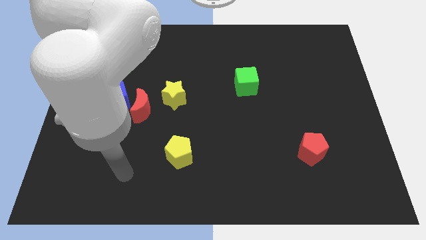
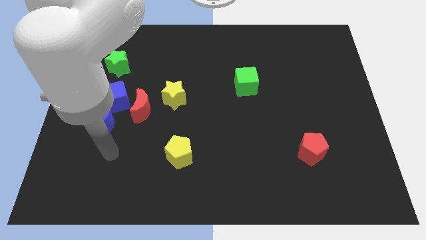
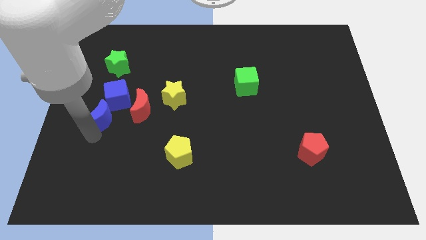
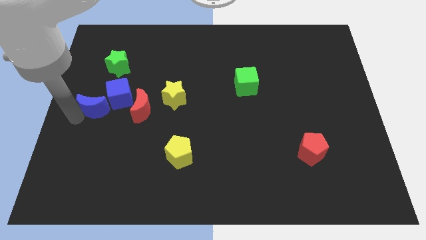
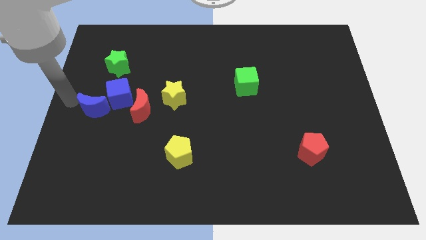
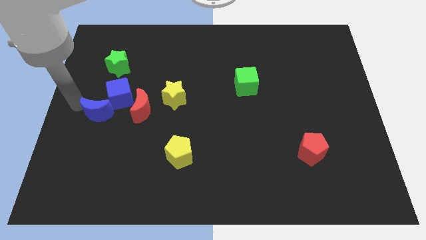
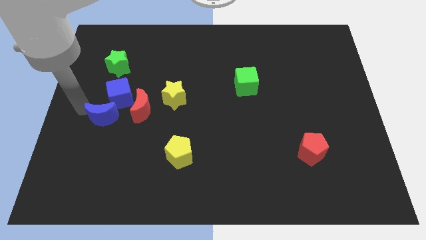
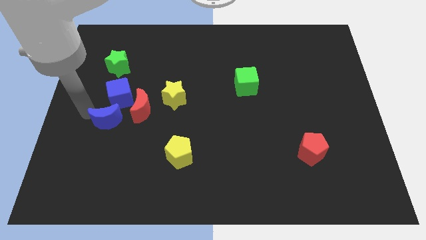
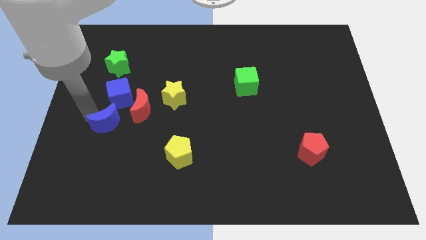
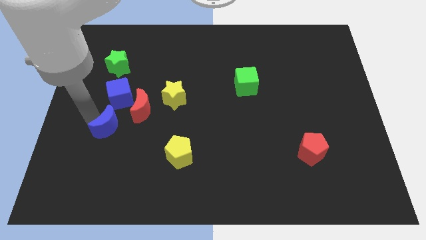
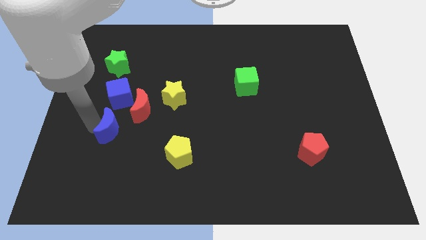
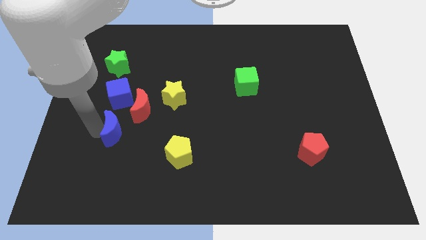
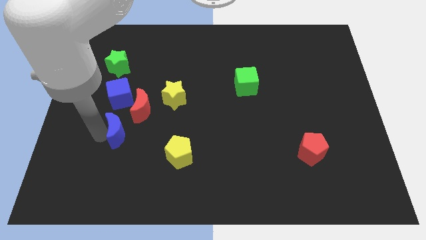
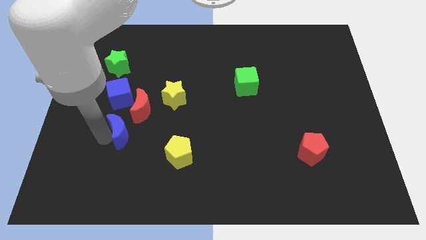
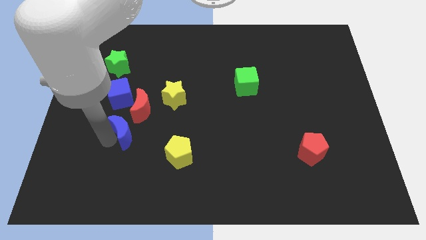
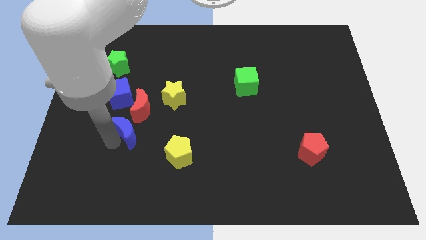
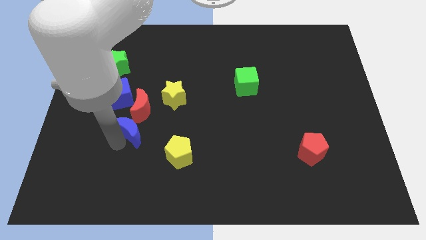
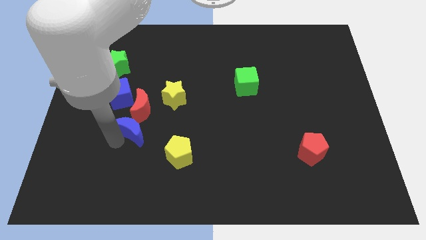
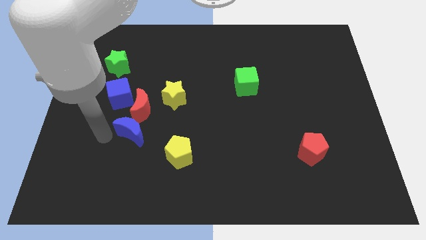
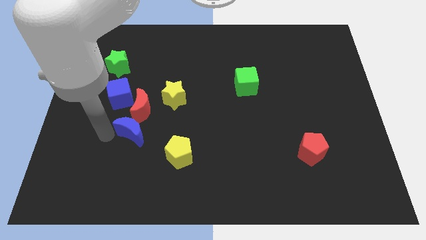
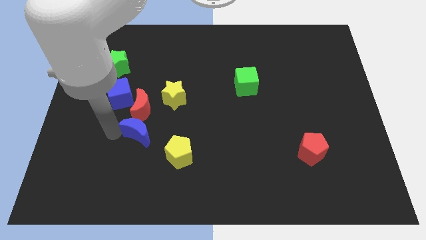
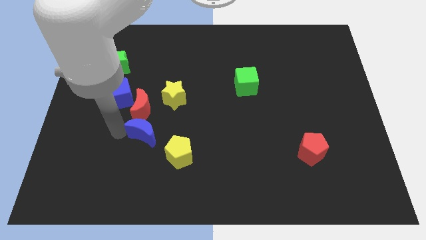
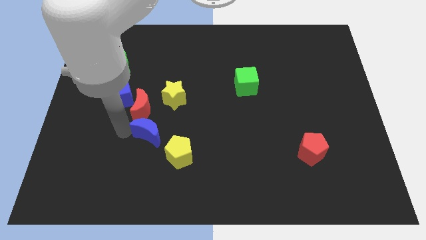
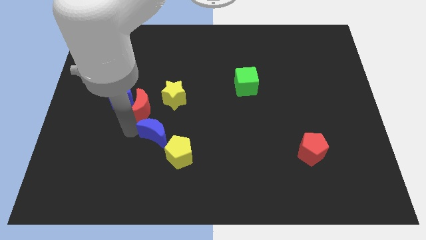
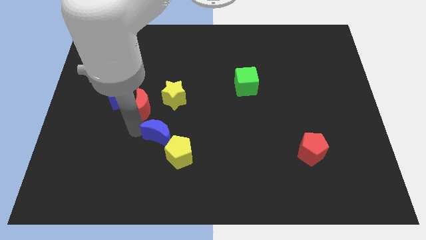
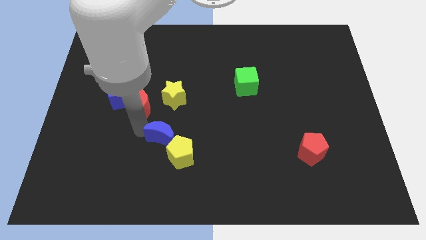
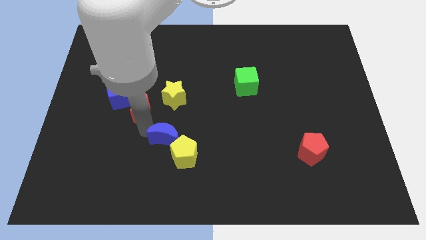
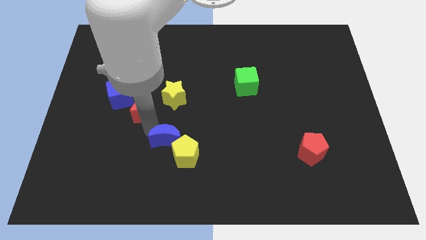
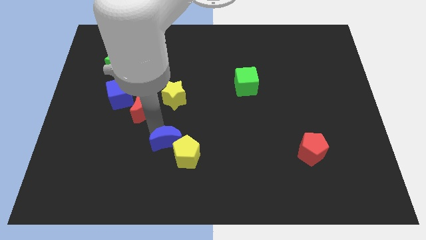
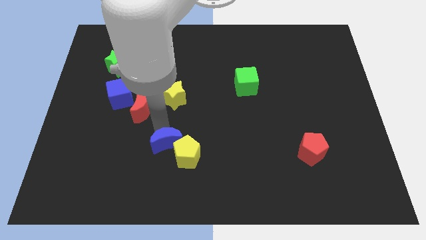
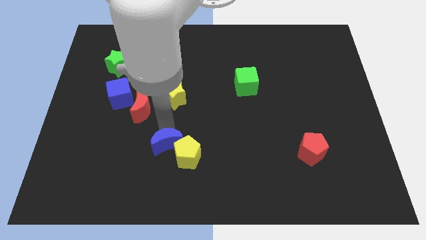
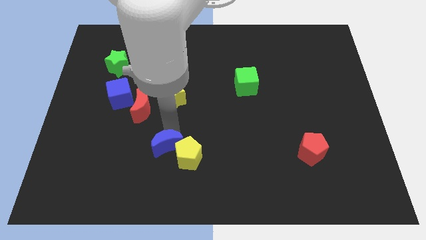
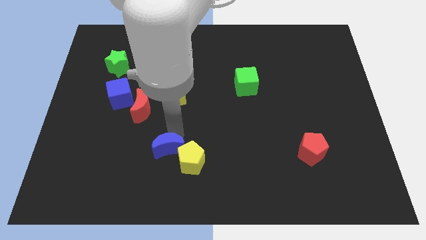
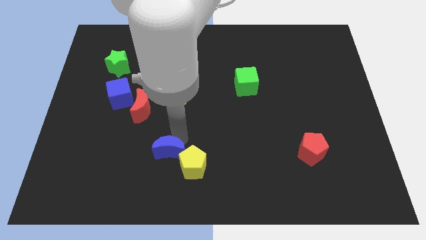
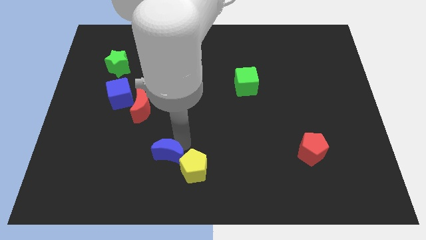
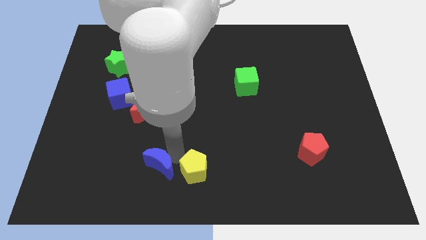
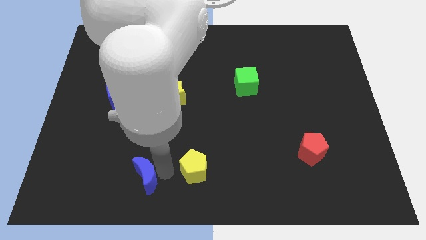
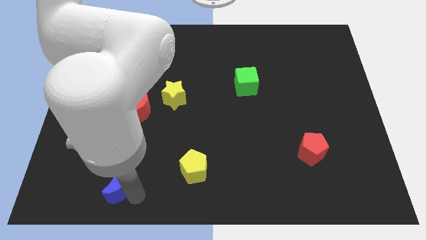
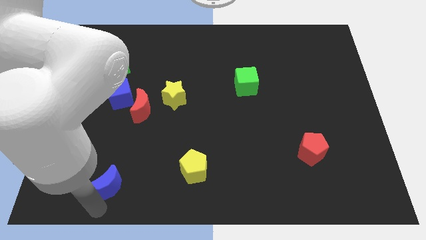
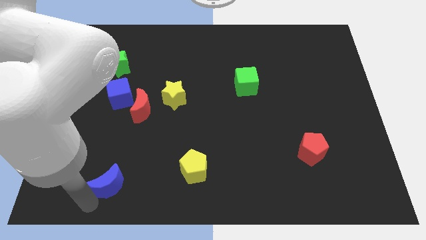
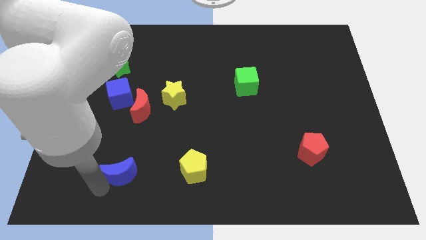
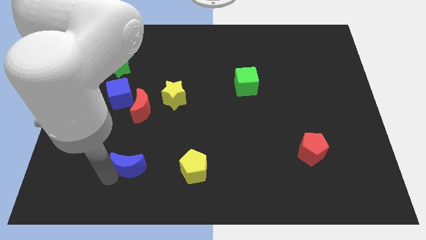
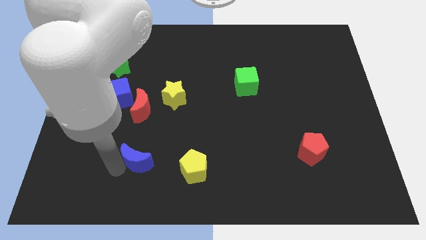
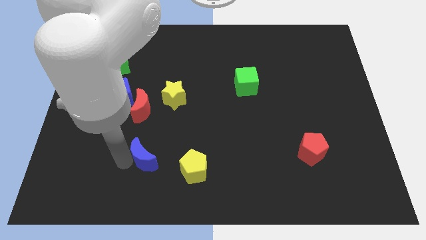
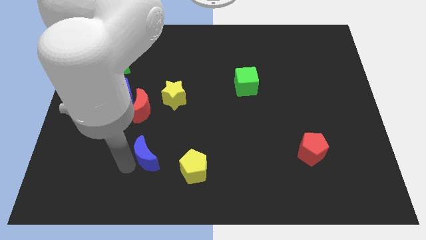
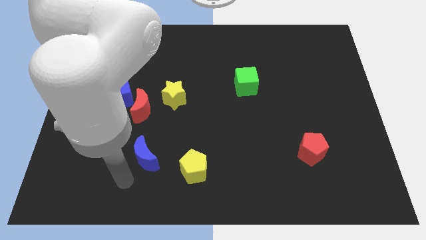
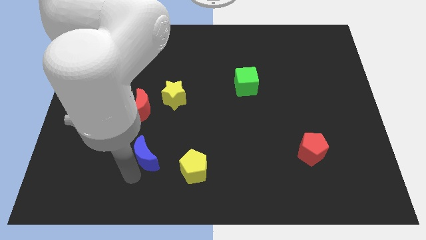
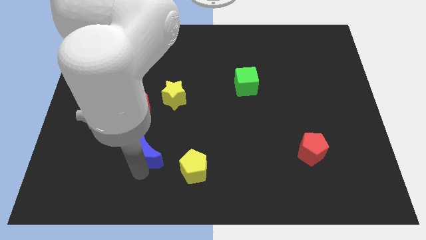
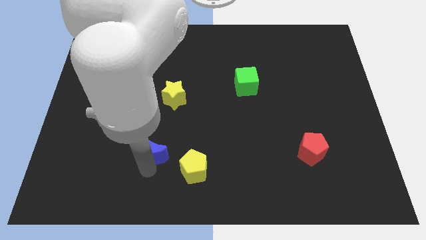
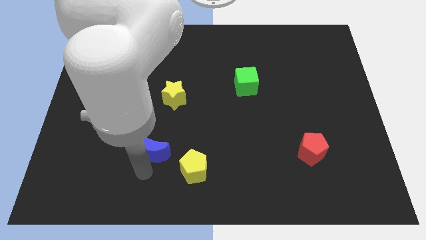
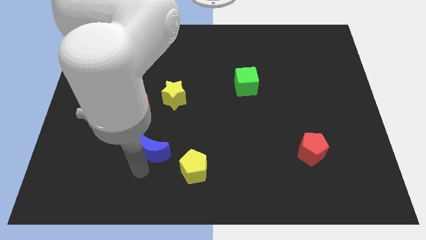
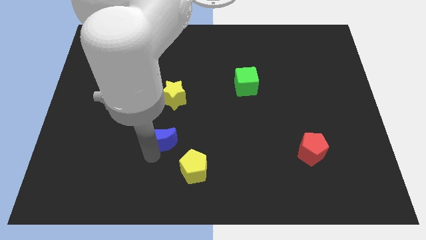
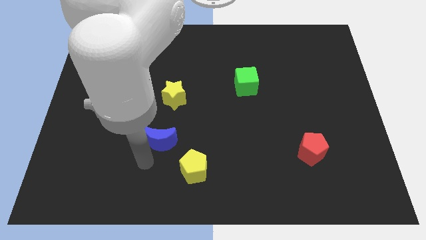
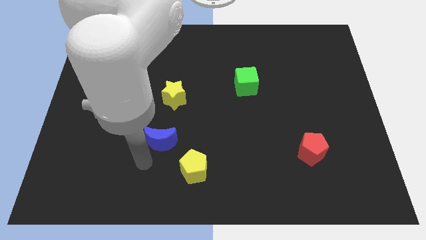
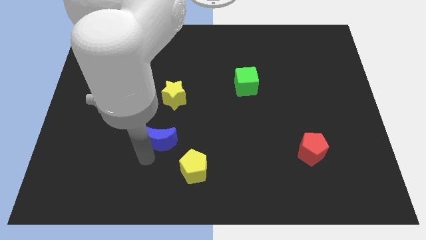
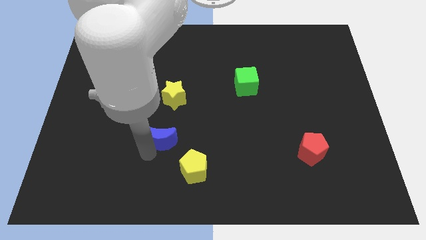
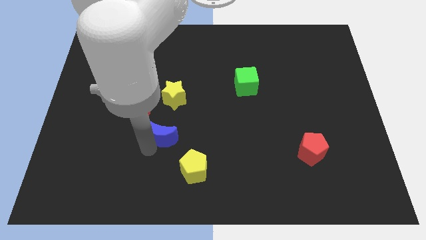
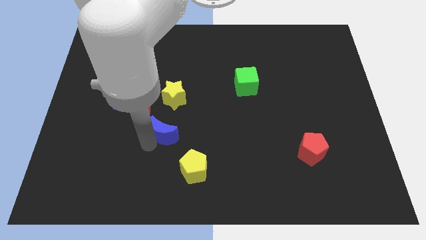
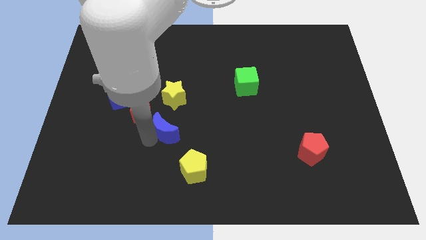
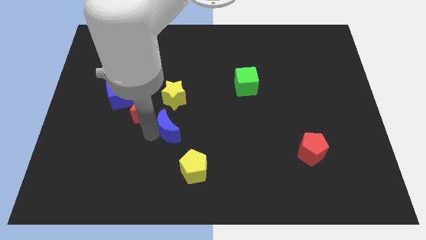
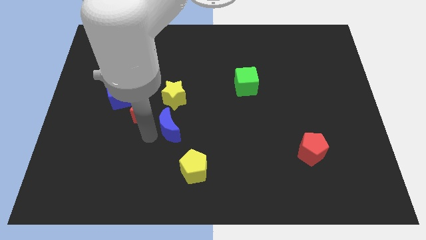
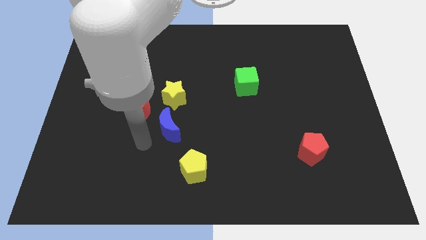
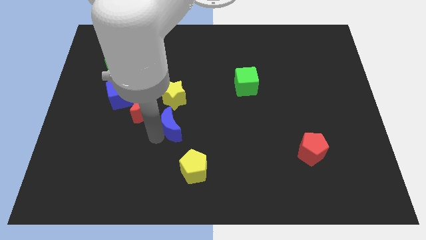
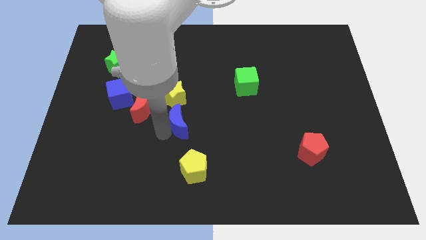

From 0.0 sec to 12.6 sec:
slide the blue moon to the bottom right side of the yellow star

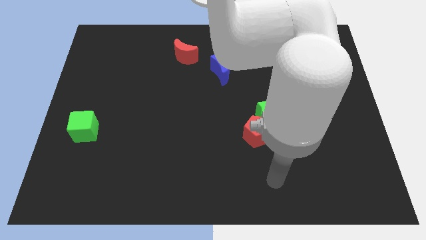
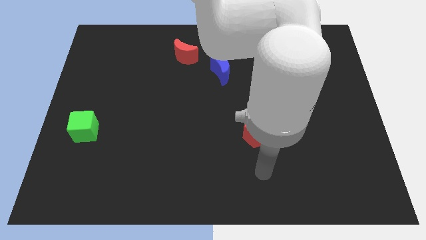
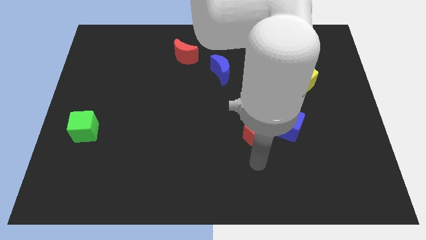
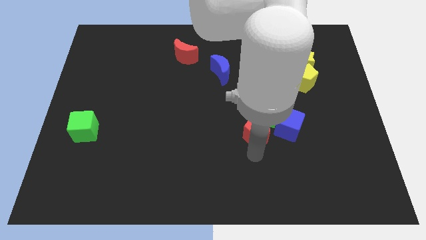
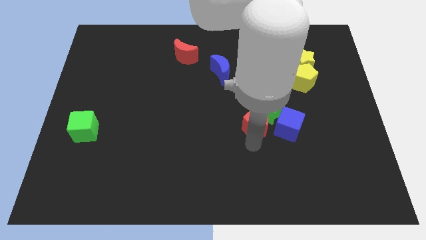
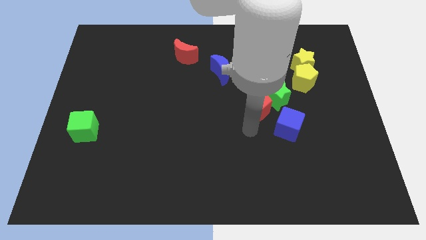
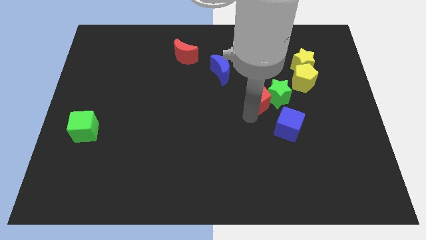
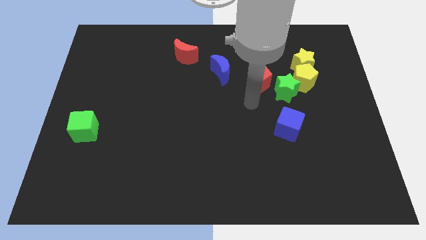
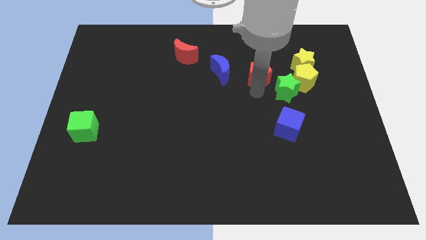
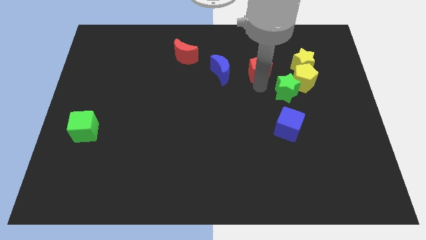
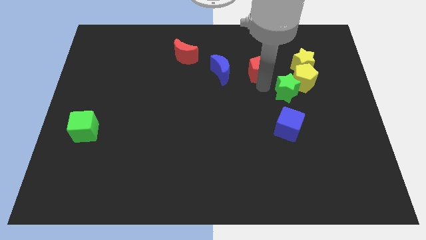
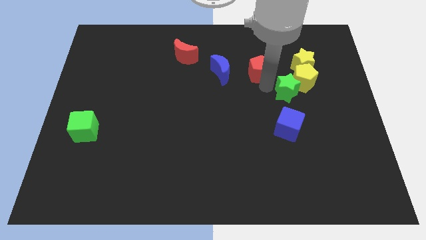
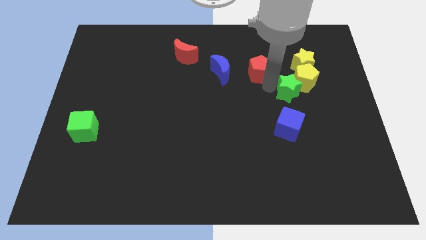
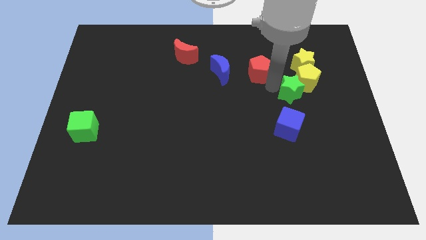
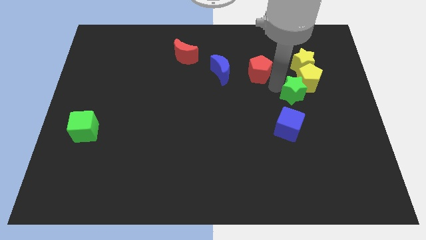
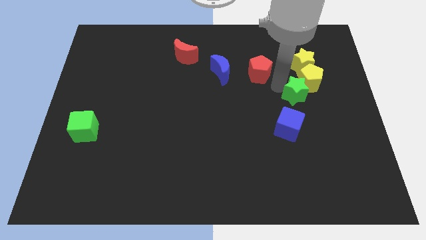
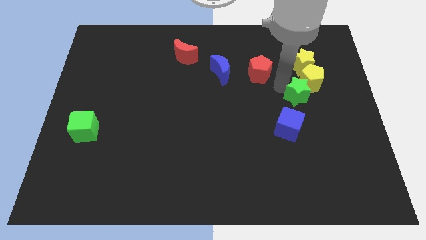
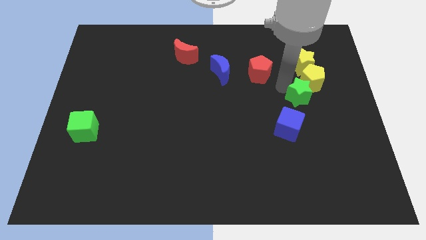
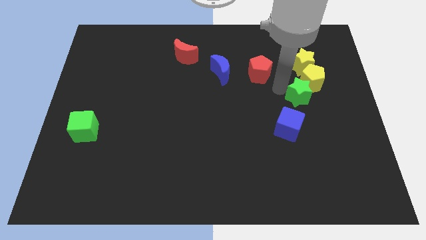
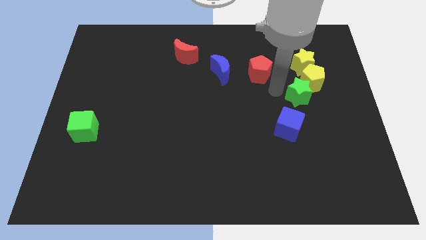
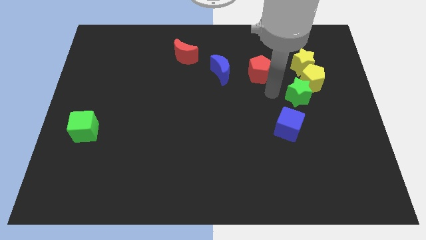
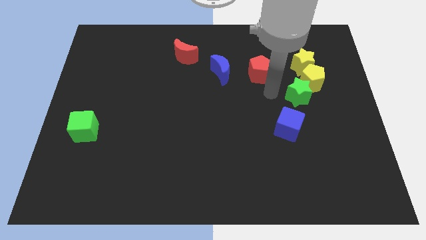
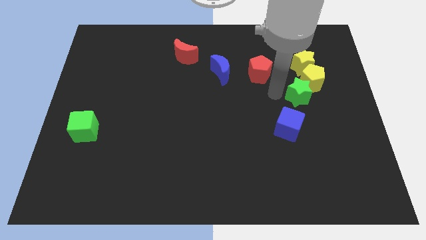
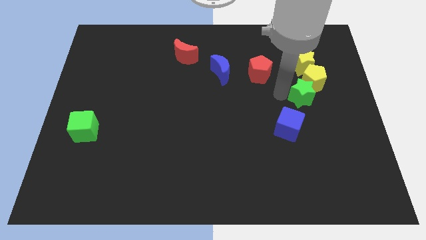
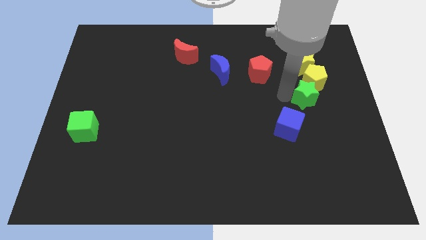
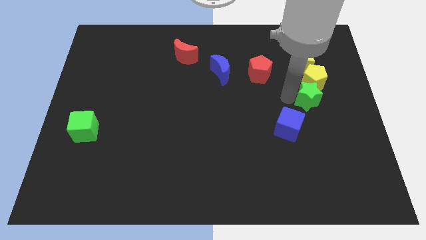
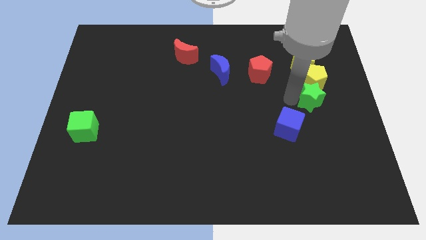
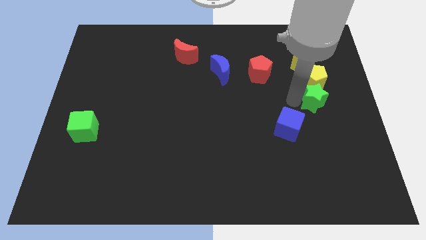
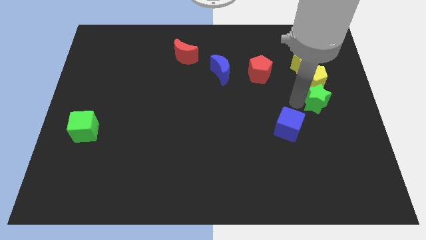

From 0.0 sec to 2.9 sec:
put the green star to the bottom right side of the yellow pentagon
